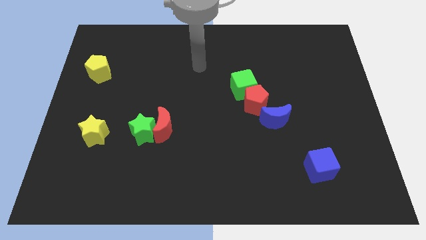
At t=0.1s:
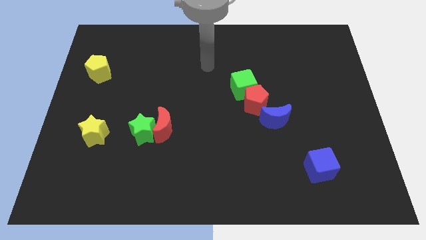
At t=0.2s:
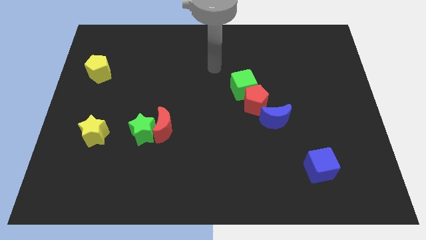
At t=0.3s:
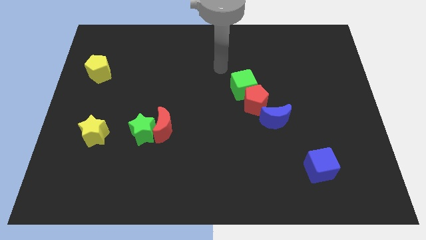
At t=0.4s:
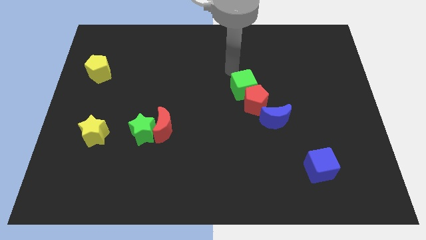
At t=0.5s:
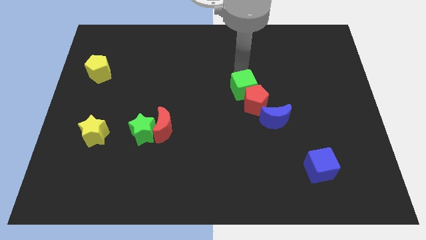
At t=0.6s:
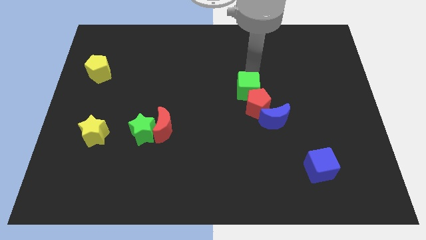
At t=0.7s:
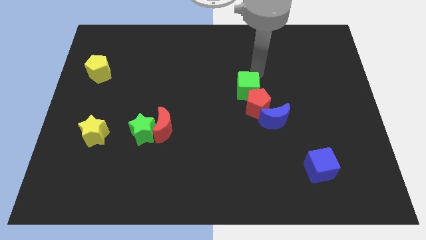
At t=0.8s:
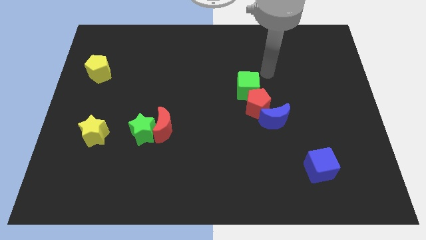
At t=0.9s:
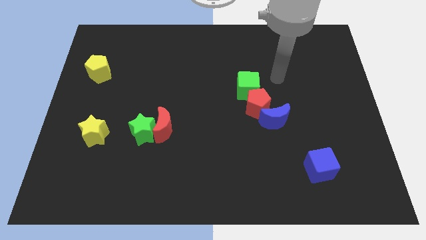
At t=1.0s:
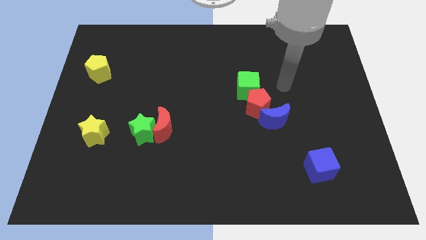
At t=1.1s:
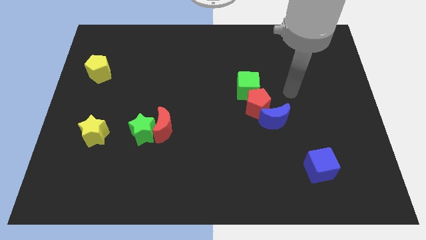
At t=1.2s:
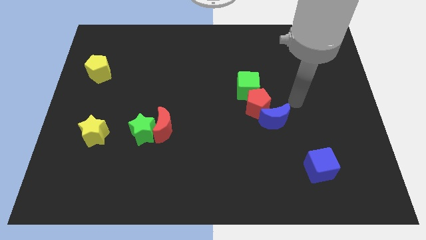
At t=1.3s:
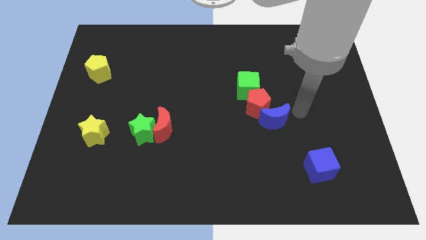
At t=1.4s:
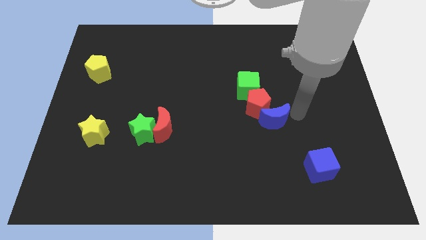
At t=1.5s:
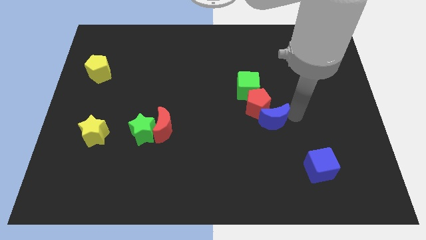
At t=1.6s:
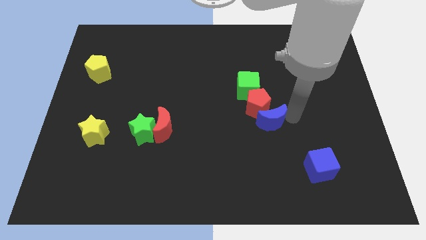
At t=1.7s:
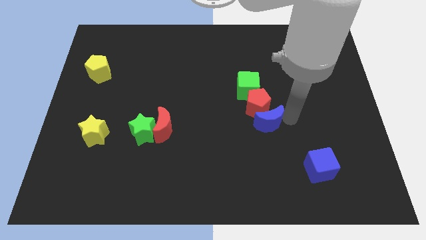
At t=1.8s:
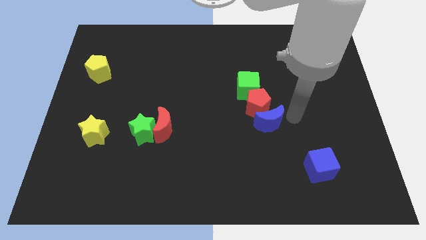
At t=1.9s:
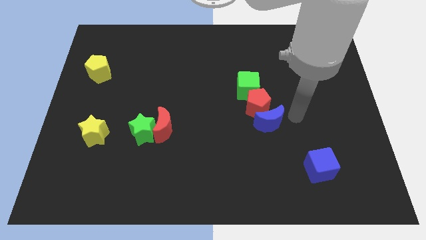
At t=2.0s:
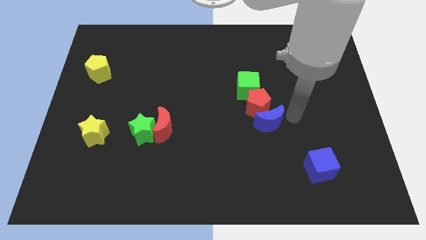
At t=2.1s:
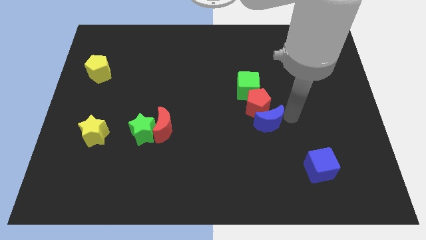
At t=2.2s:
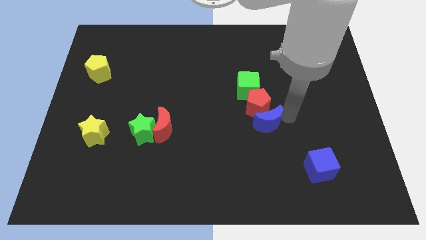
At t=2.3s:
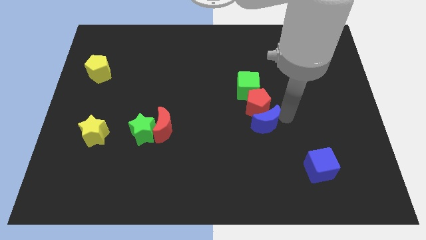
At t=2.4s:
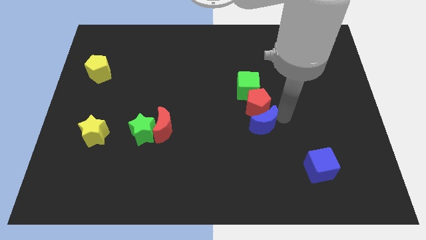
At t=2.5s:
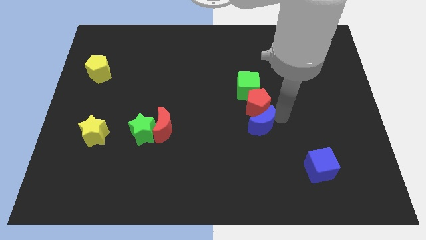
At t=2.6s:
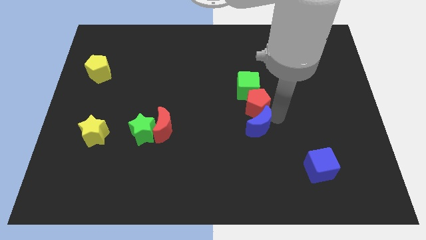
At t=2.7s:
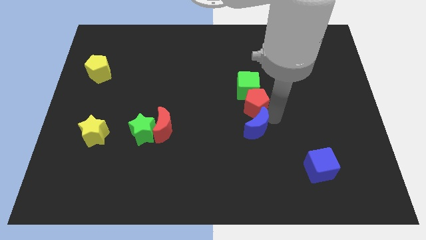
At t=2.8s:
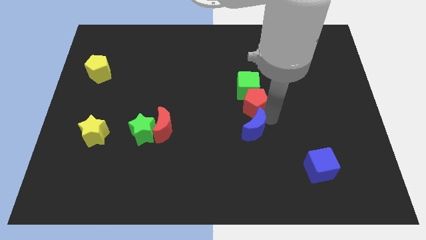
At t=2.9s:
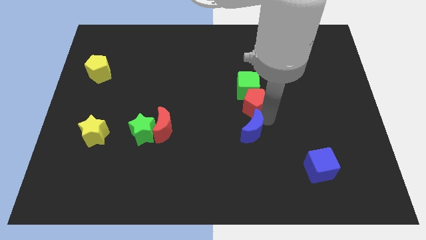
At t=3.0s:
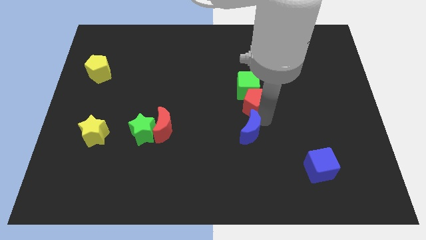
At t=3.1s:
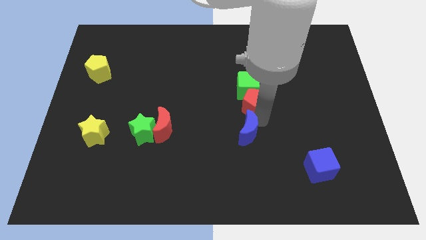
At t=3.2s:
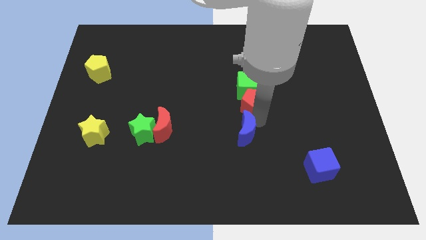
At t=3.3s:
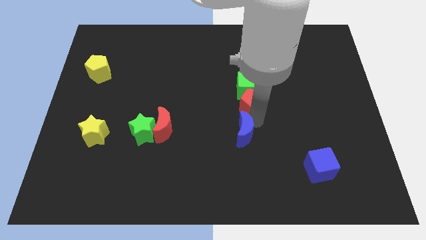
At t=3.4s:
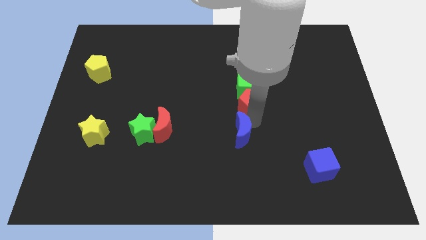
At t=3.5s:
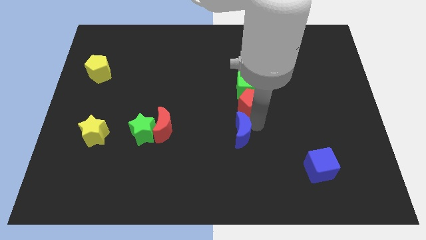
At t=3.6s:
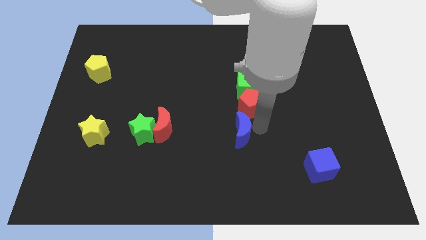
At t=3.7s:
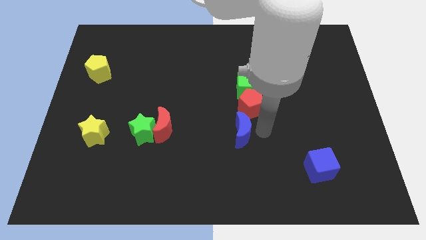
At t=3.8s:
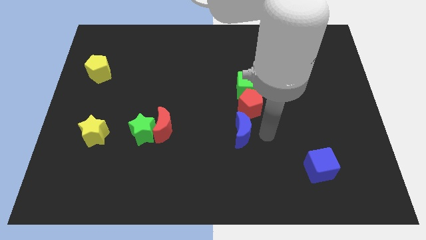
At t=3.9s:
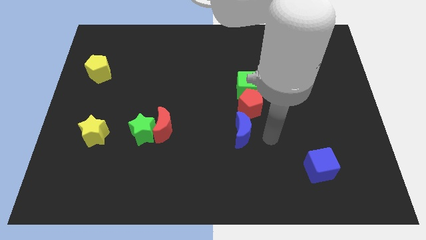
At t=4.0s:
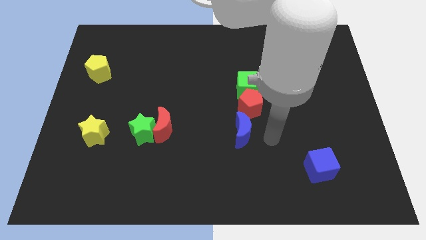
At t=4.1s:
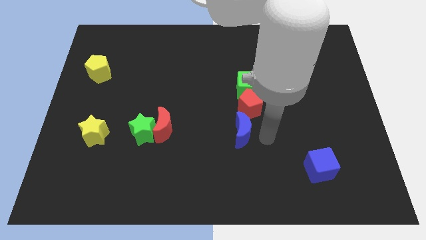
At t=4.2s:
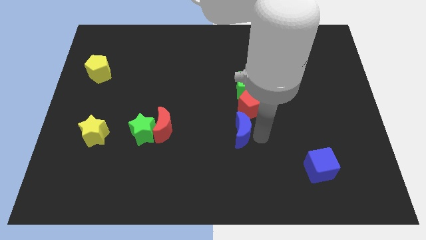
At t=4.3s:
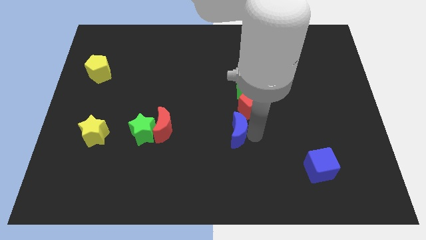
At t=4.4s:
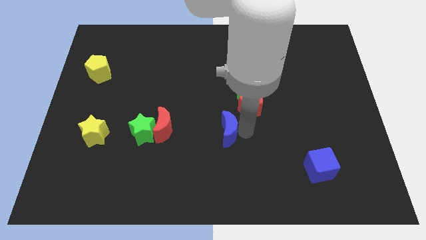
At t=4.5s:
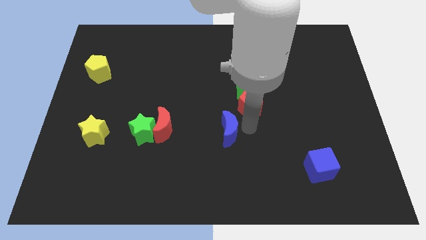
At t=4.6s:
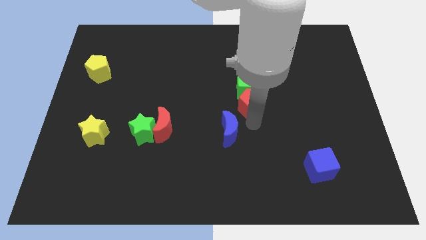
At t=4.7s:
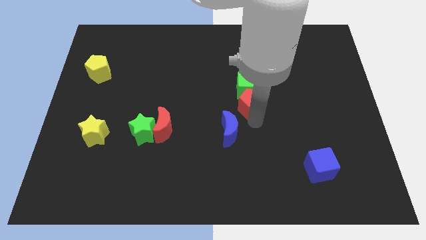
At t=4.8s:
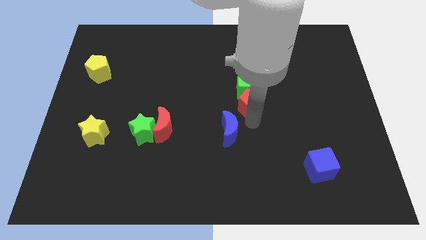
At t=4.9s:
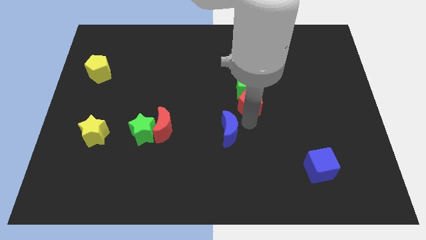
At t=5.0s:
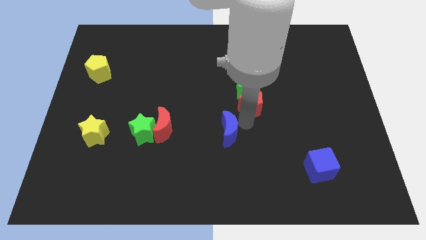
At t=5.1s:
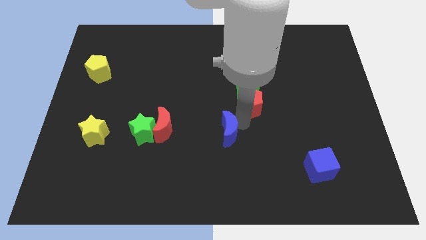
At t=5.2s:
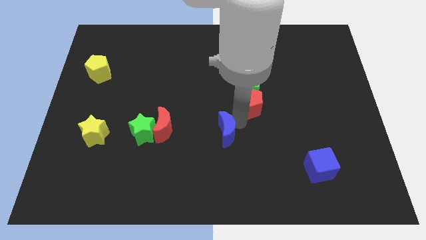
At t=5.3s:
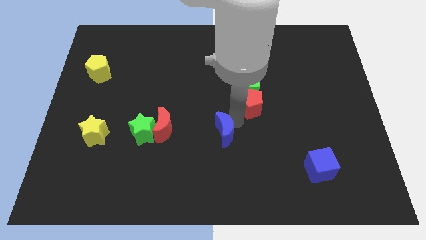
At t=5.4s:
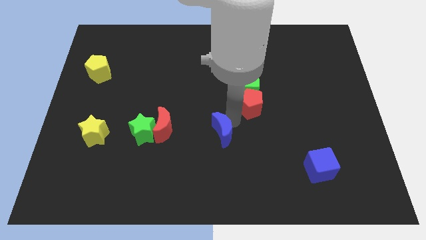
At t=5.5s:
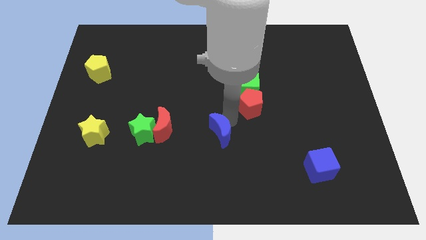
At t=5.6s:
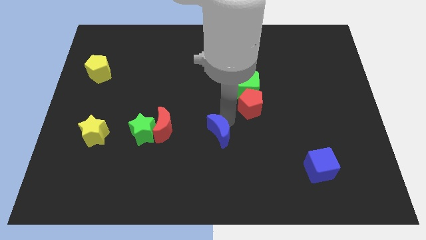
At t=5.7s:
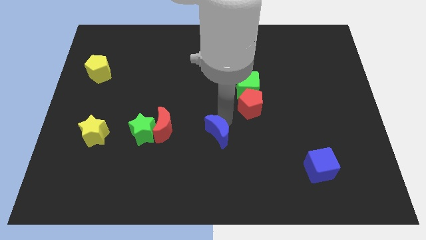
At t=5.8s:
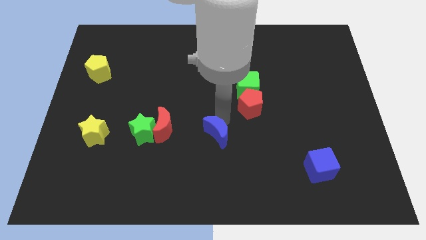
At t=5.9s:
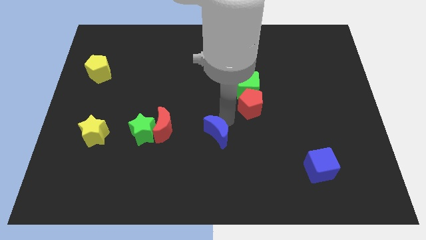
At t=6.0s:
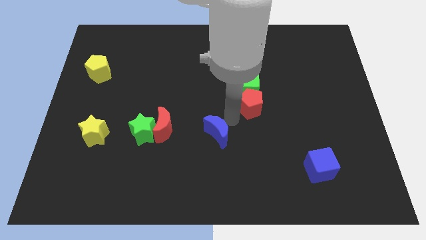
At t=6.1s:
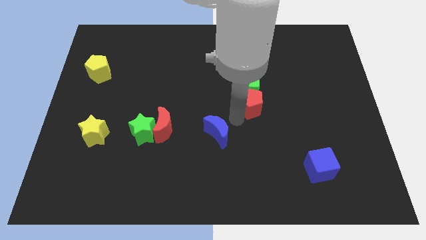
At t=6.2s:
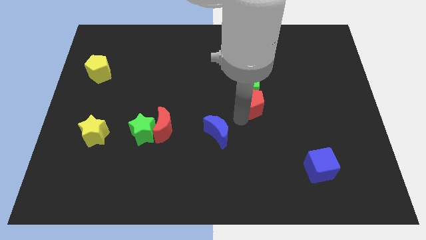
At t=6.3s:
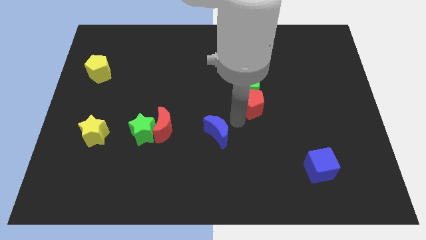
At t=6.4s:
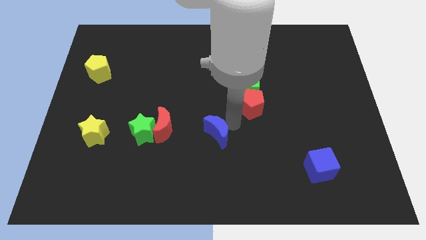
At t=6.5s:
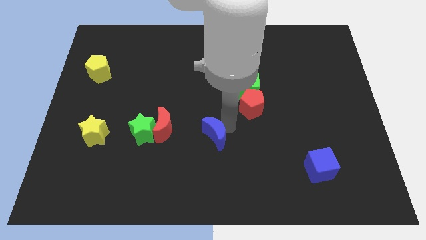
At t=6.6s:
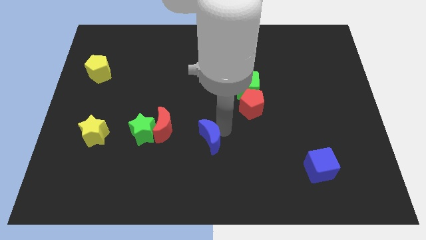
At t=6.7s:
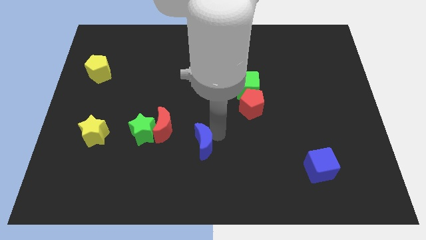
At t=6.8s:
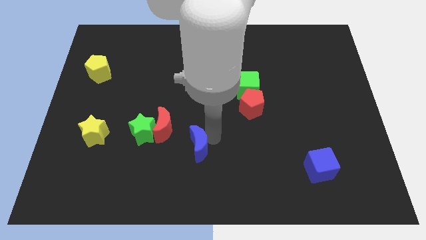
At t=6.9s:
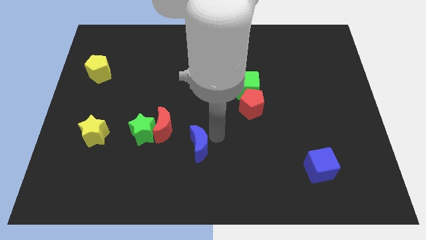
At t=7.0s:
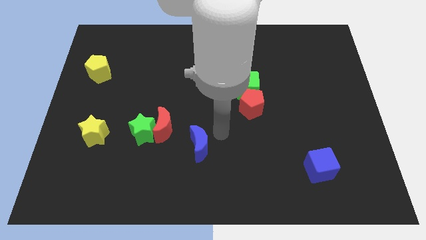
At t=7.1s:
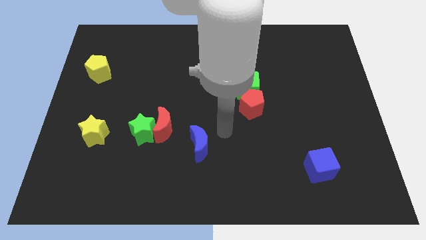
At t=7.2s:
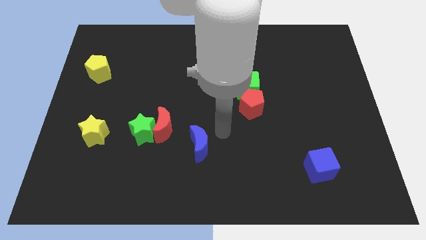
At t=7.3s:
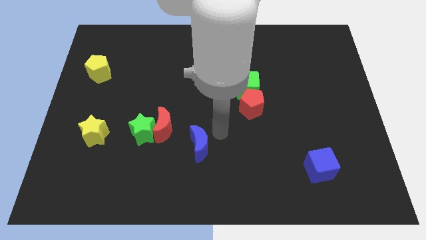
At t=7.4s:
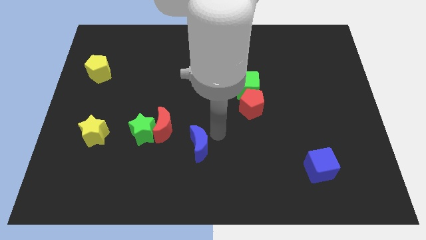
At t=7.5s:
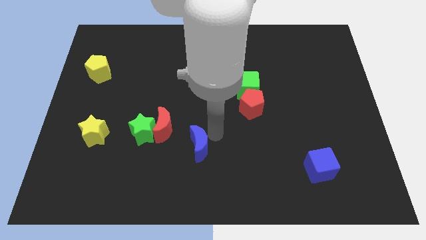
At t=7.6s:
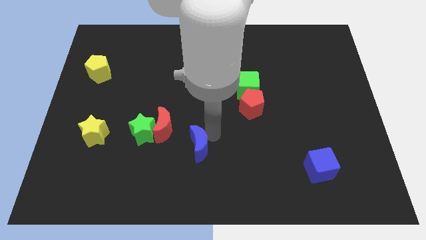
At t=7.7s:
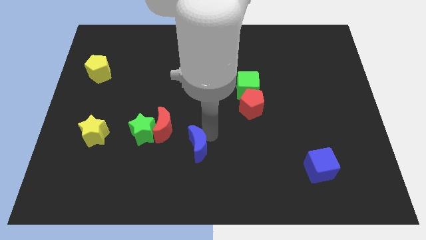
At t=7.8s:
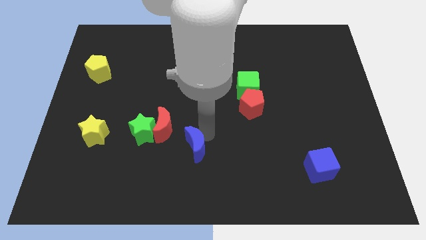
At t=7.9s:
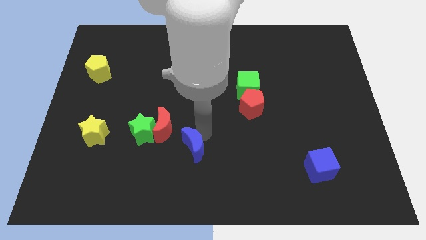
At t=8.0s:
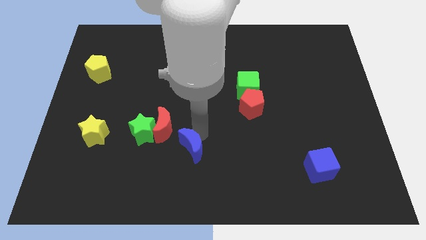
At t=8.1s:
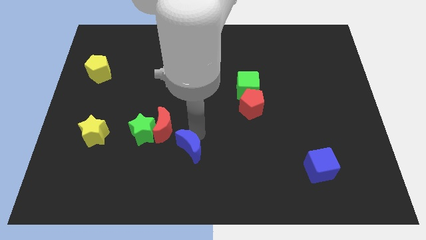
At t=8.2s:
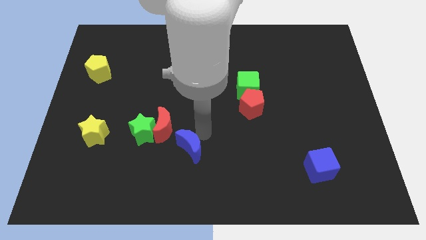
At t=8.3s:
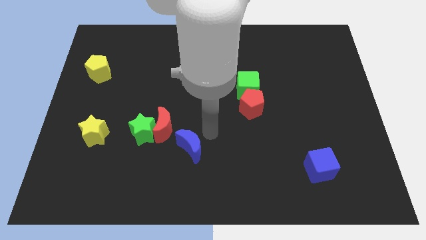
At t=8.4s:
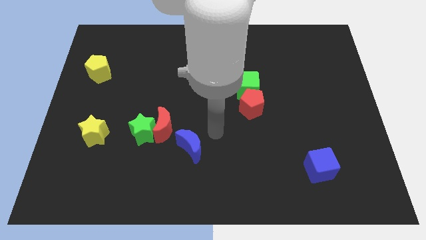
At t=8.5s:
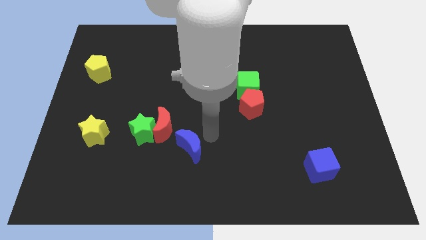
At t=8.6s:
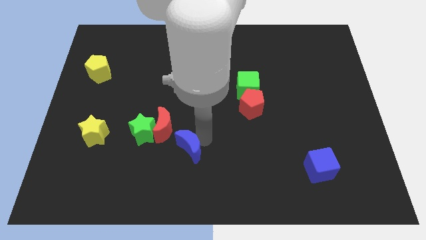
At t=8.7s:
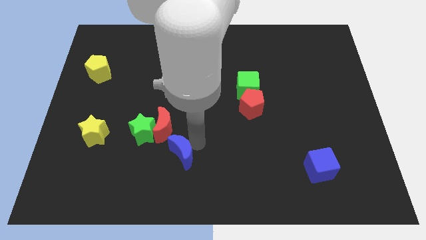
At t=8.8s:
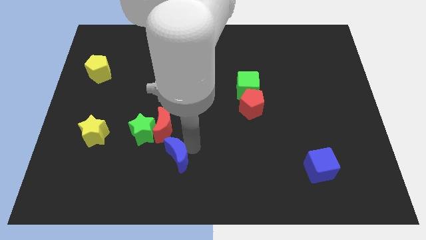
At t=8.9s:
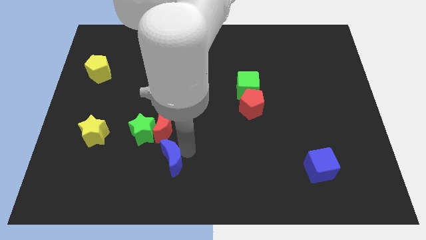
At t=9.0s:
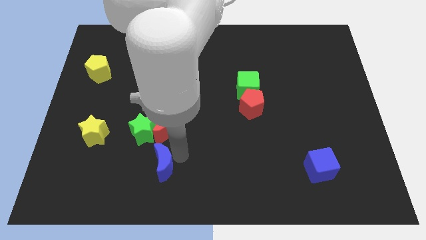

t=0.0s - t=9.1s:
slide the blue moon below the green star
